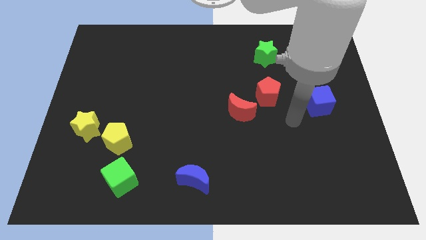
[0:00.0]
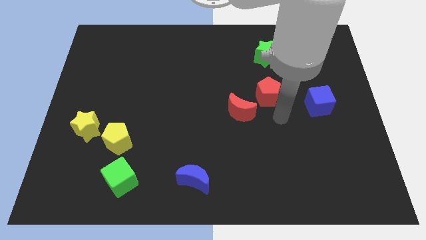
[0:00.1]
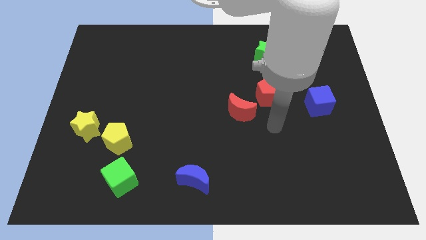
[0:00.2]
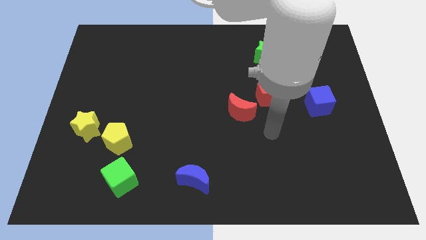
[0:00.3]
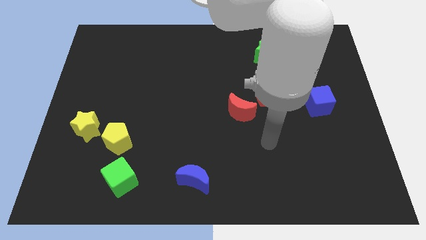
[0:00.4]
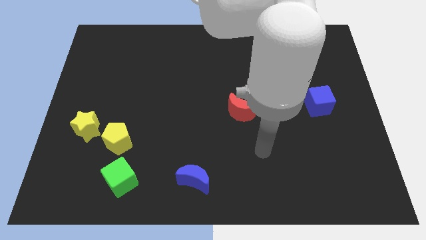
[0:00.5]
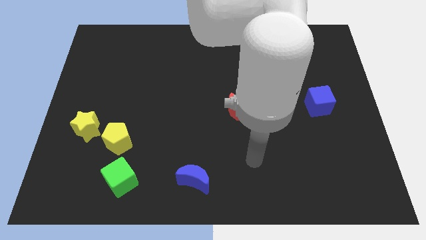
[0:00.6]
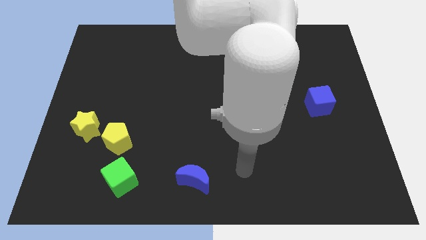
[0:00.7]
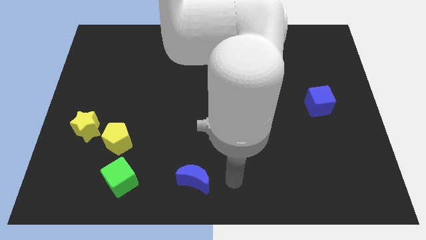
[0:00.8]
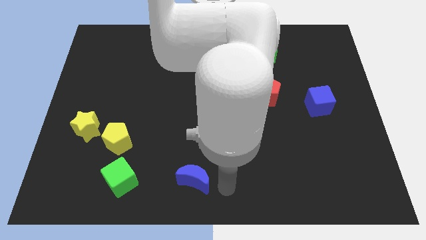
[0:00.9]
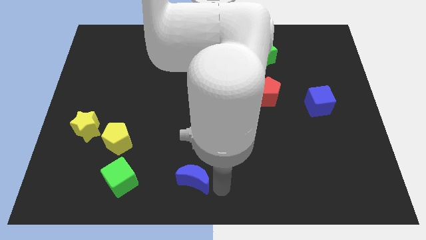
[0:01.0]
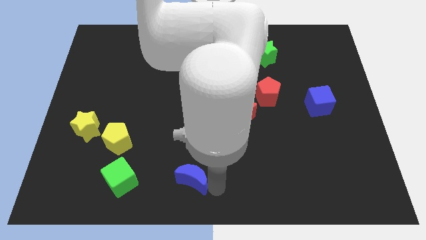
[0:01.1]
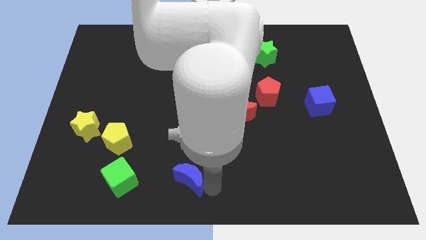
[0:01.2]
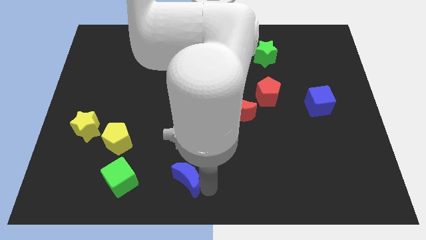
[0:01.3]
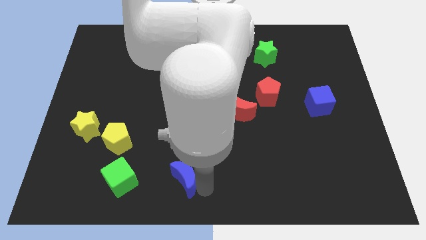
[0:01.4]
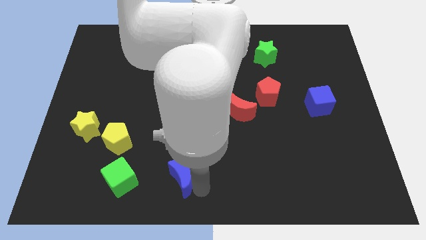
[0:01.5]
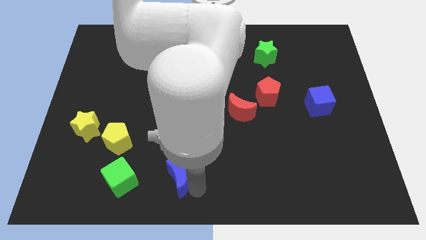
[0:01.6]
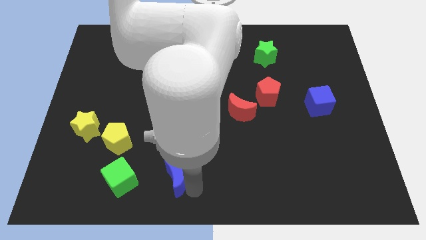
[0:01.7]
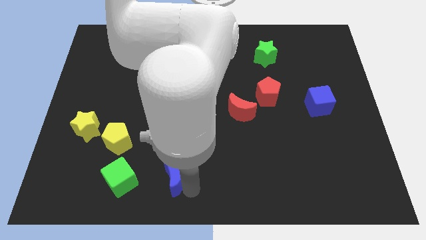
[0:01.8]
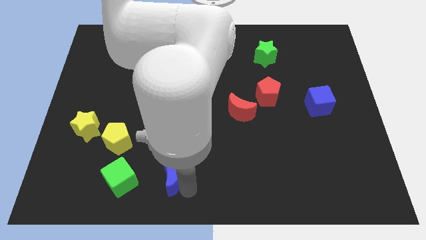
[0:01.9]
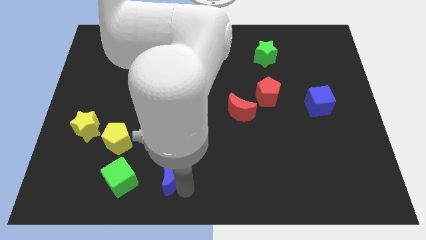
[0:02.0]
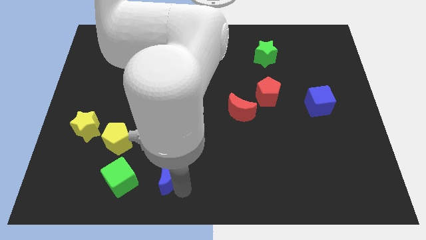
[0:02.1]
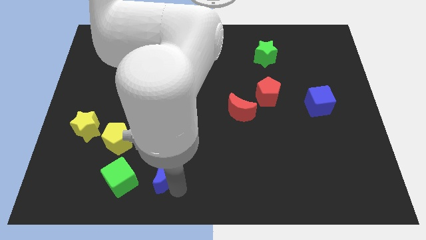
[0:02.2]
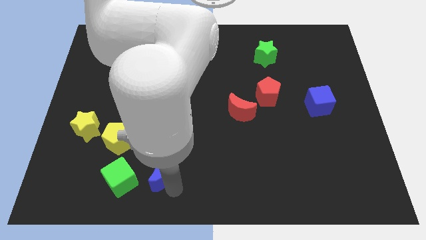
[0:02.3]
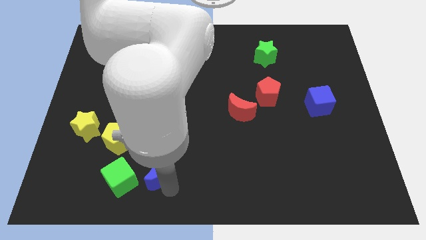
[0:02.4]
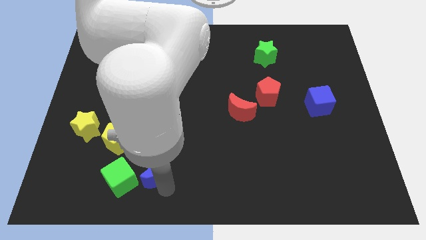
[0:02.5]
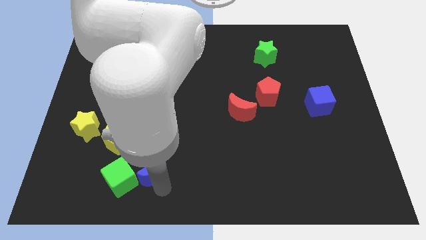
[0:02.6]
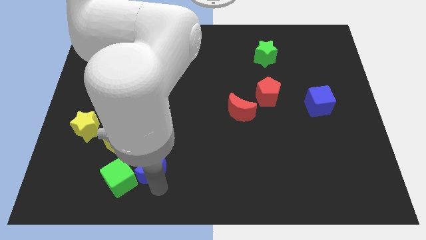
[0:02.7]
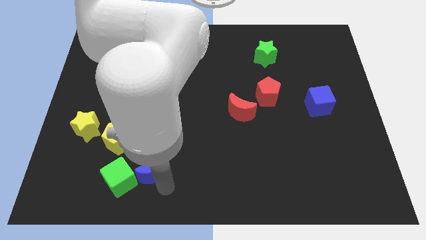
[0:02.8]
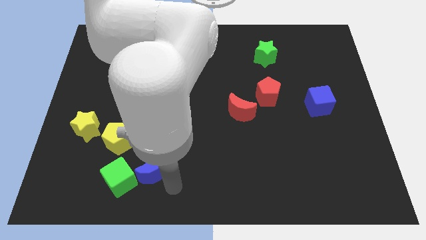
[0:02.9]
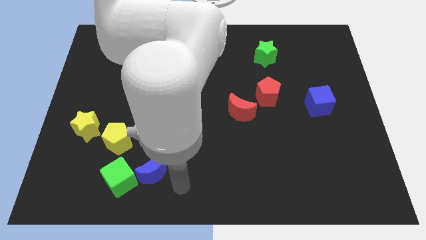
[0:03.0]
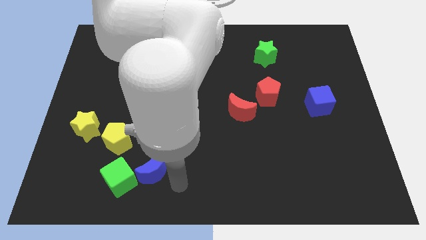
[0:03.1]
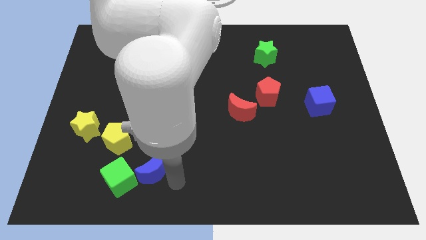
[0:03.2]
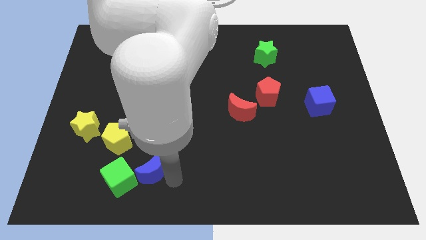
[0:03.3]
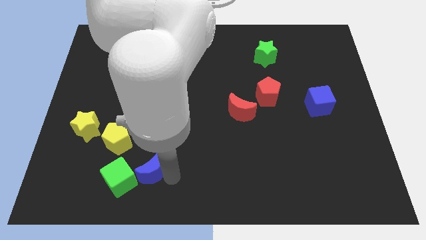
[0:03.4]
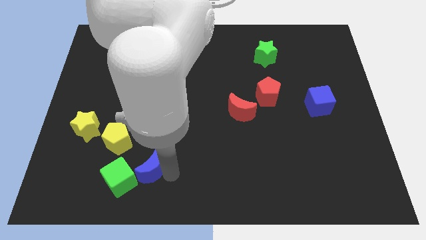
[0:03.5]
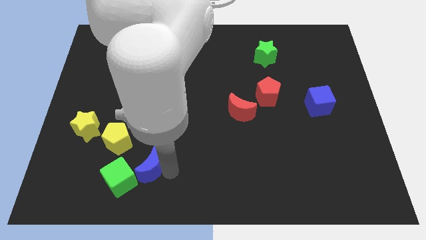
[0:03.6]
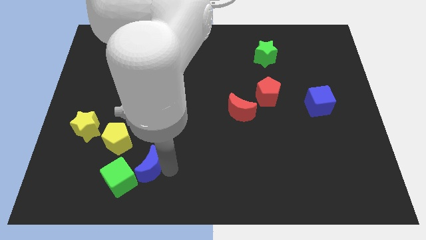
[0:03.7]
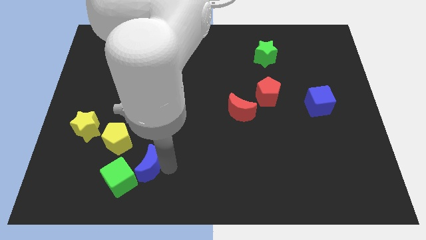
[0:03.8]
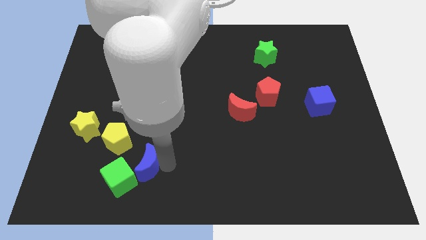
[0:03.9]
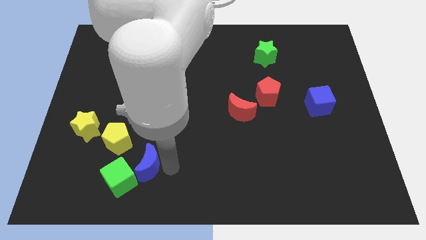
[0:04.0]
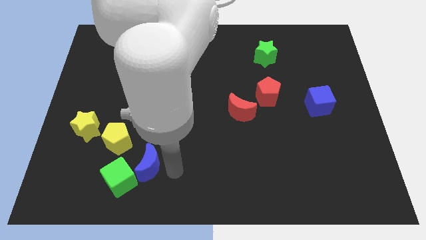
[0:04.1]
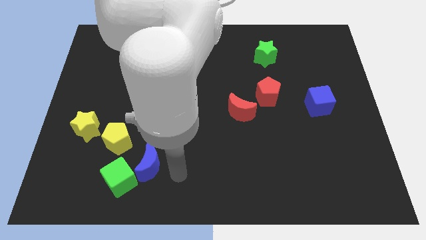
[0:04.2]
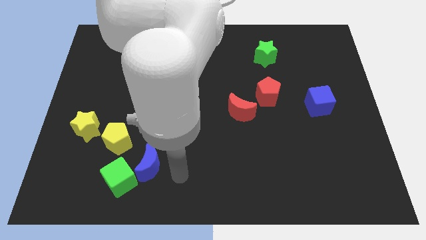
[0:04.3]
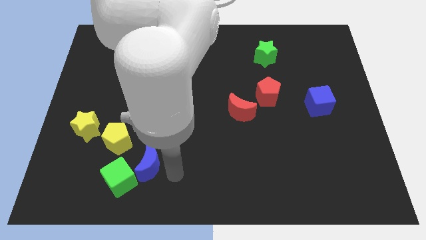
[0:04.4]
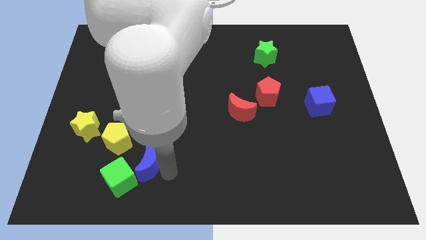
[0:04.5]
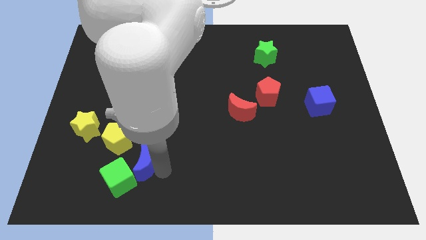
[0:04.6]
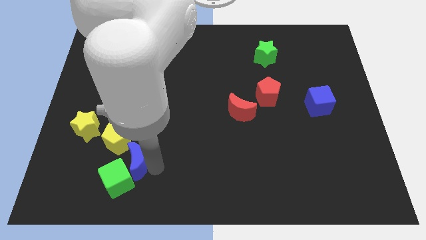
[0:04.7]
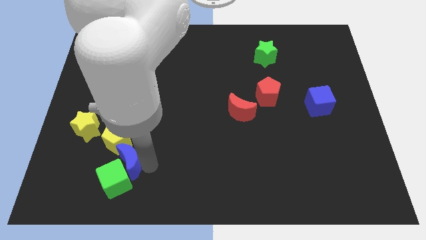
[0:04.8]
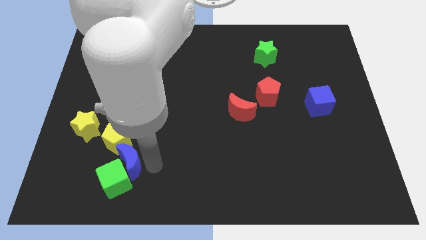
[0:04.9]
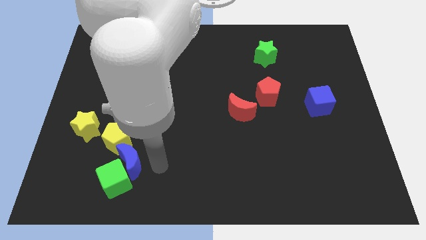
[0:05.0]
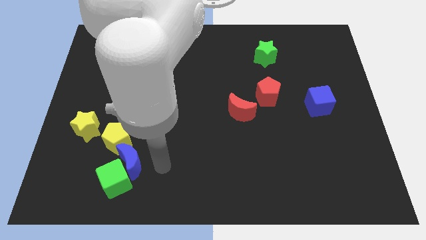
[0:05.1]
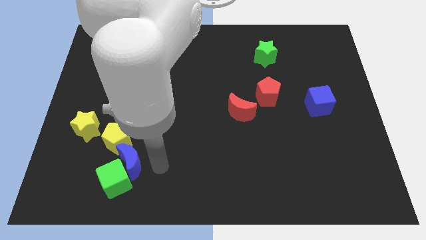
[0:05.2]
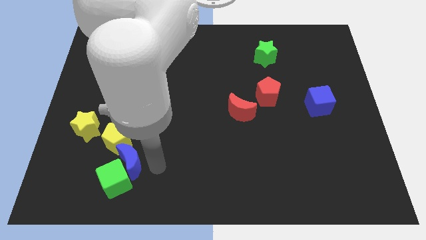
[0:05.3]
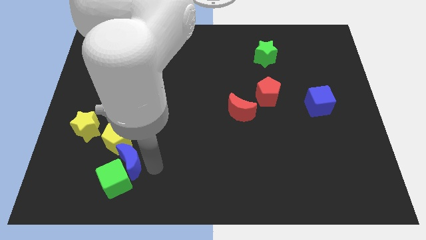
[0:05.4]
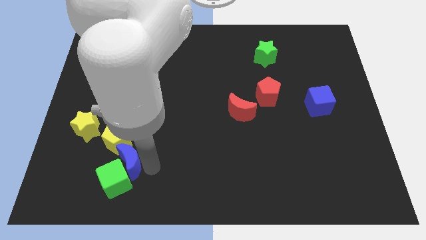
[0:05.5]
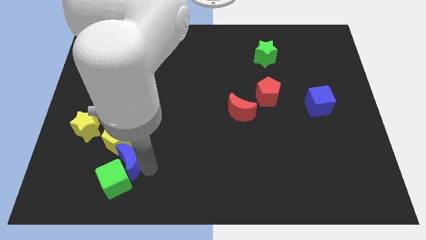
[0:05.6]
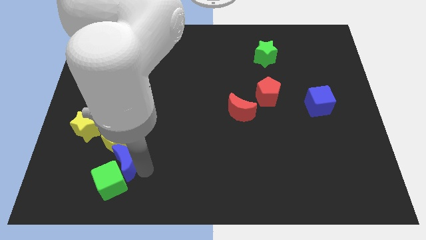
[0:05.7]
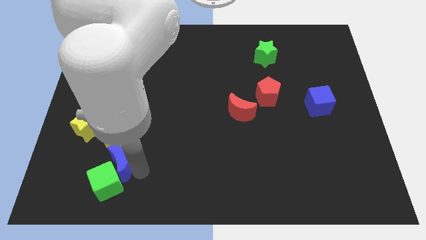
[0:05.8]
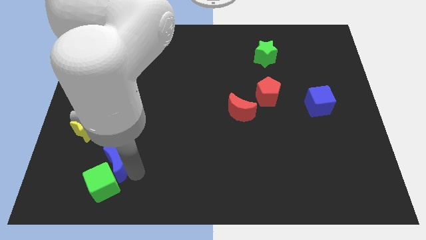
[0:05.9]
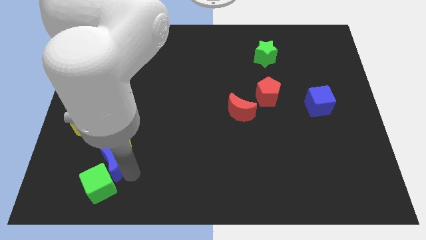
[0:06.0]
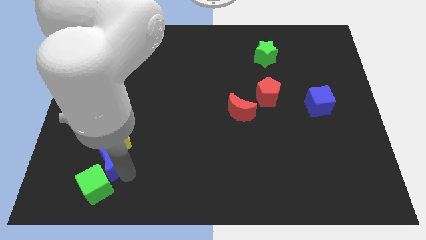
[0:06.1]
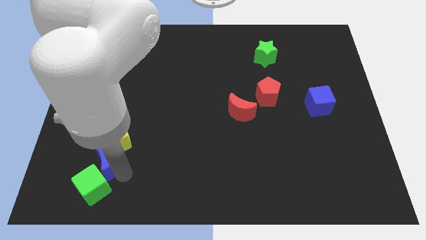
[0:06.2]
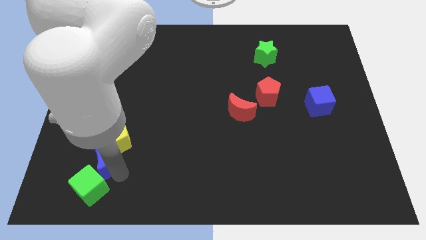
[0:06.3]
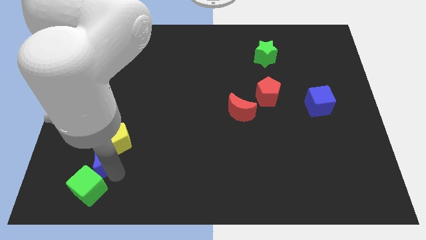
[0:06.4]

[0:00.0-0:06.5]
move the blue moon to the bottom side of the yellow star
